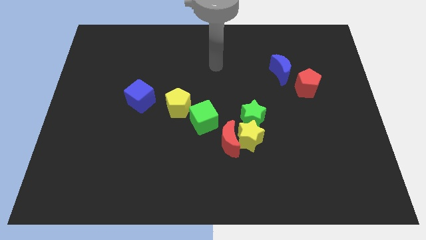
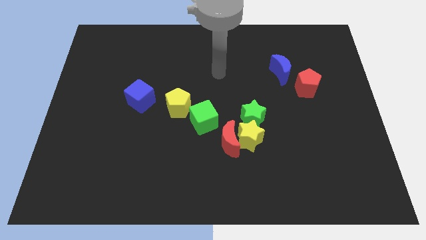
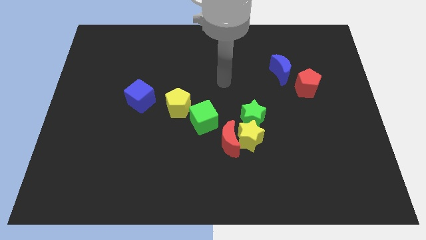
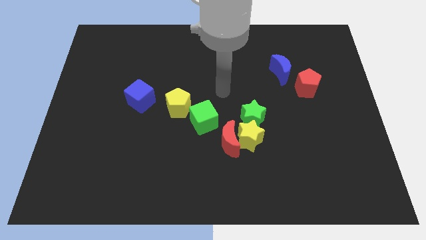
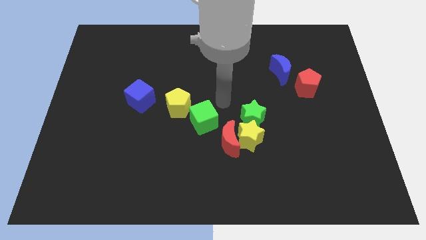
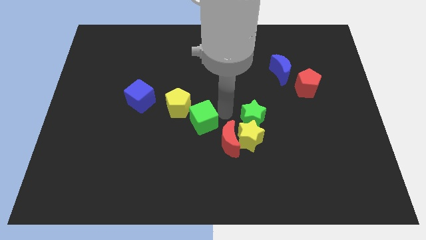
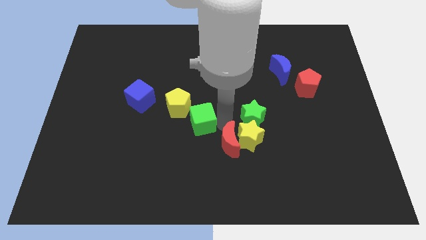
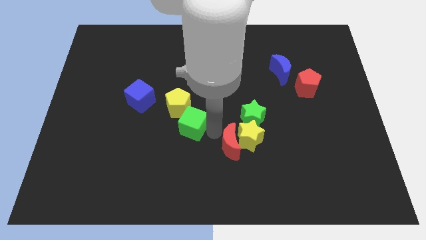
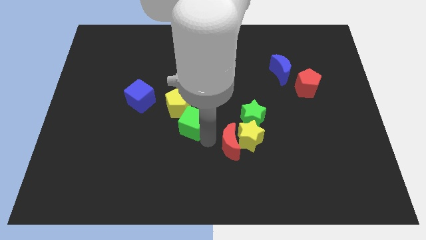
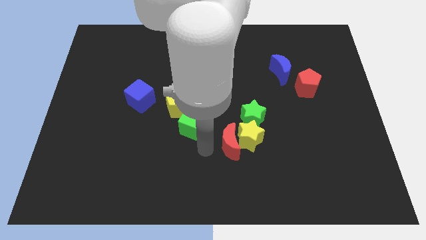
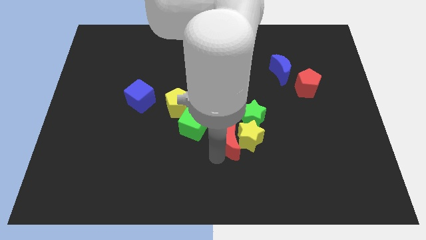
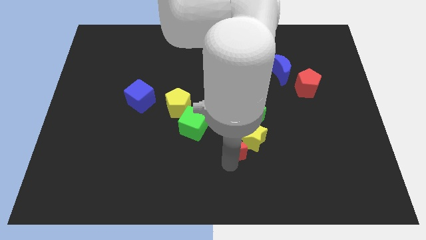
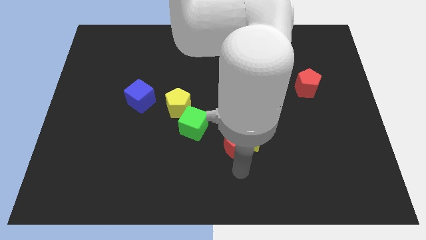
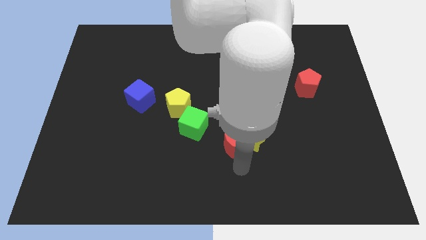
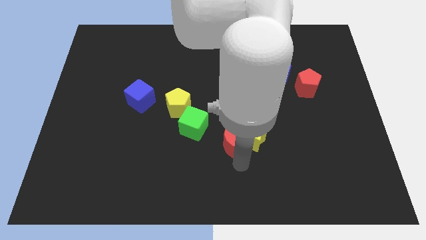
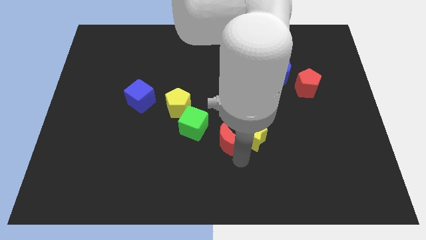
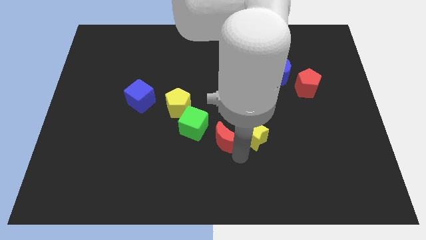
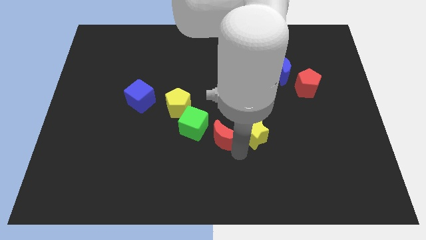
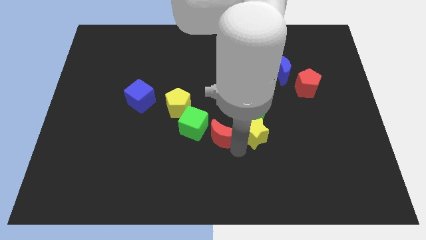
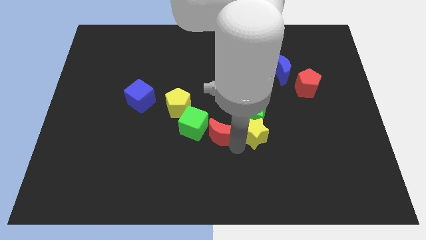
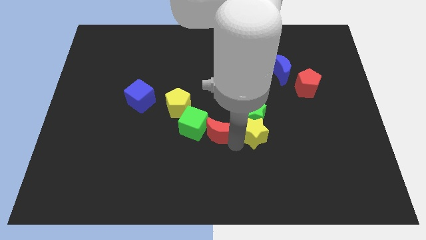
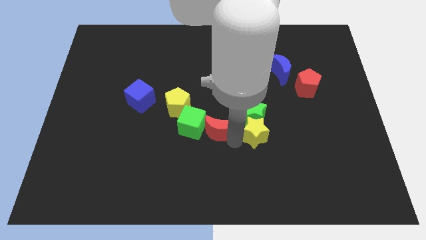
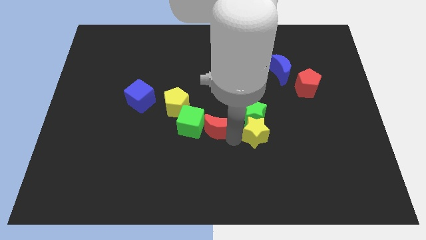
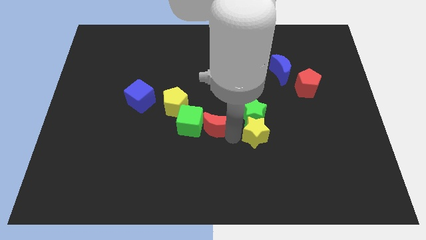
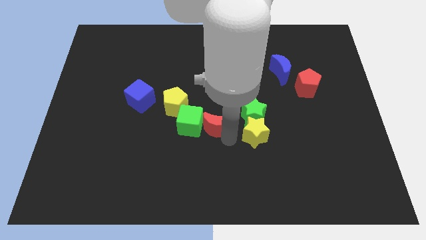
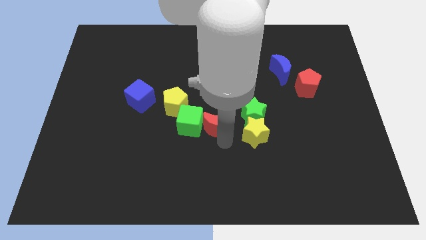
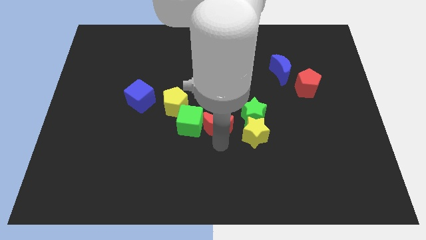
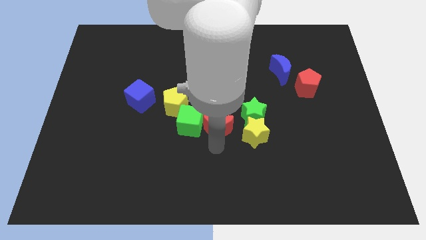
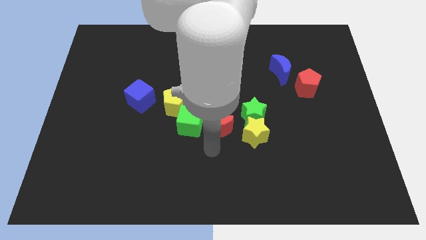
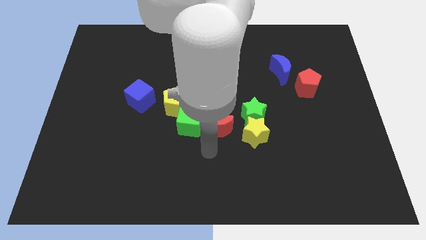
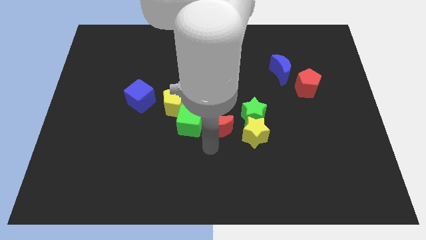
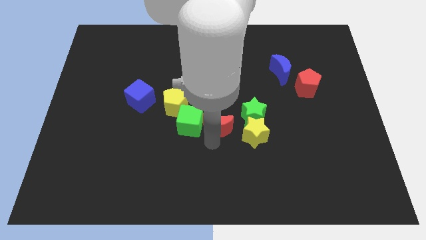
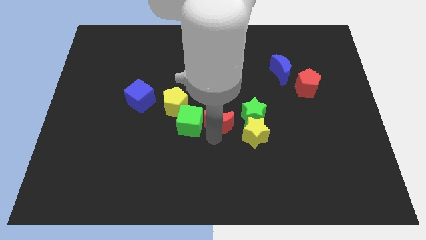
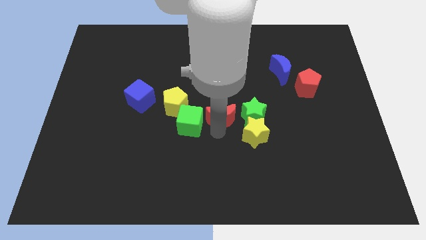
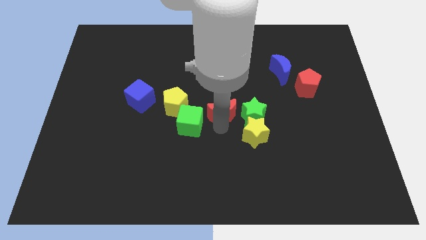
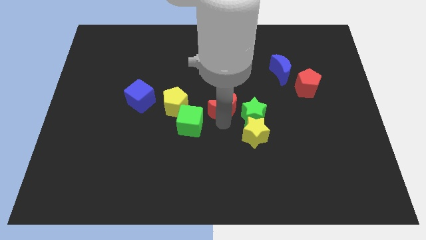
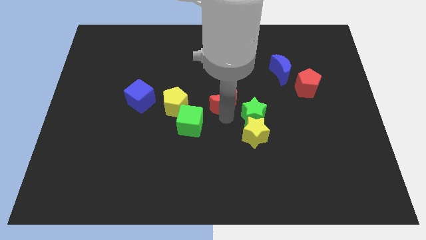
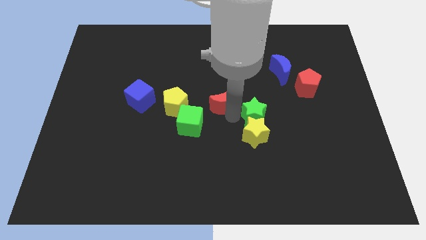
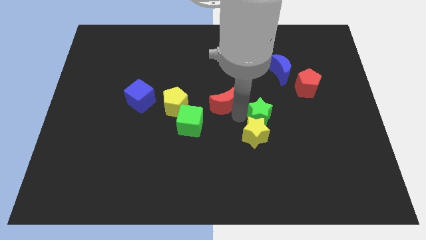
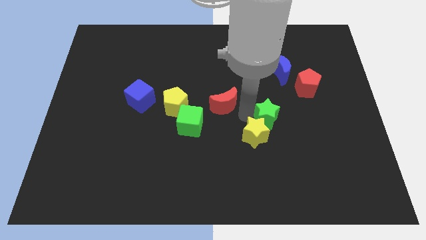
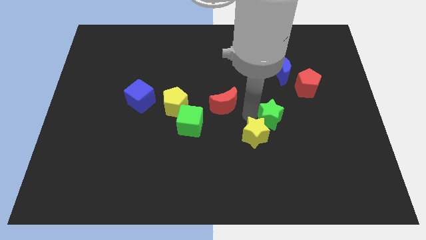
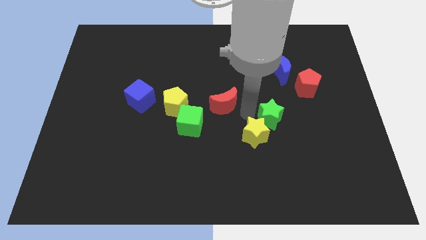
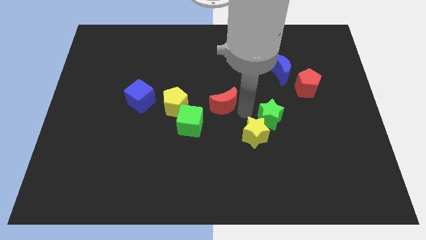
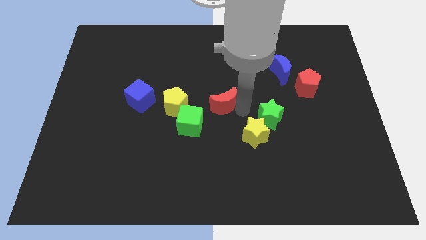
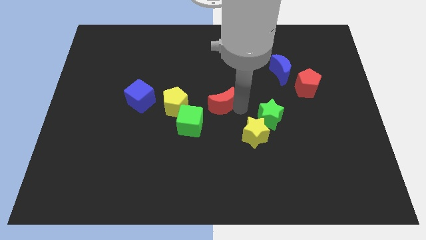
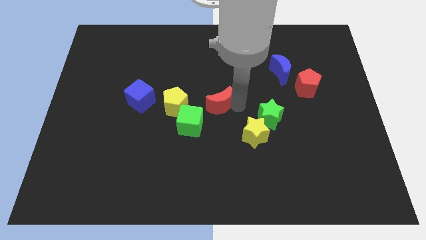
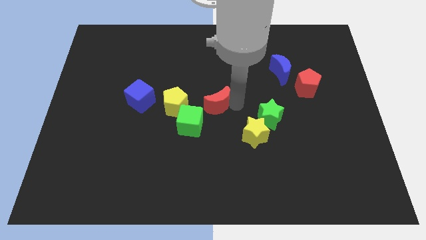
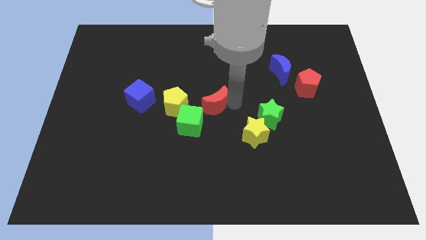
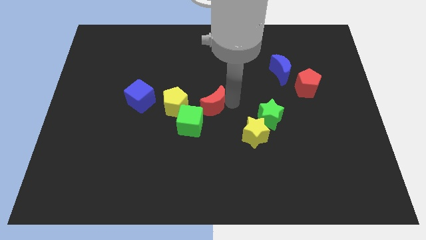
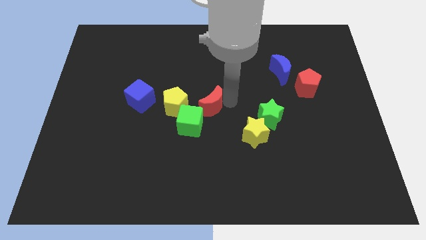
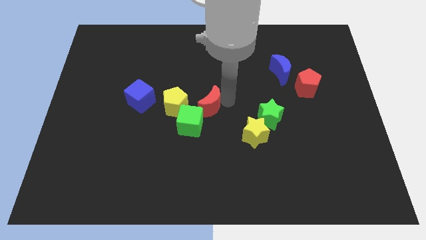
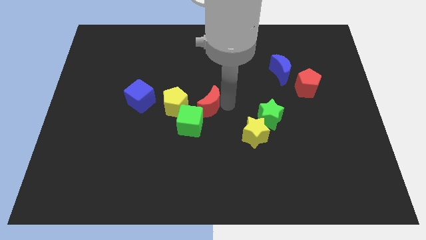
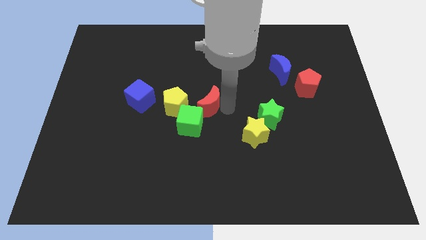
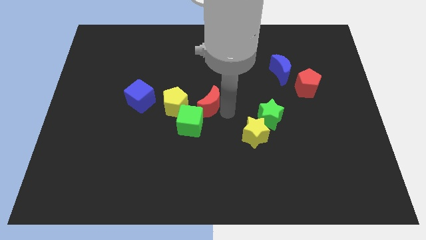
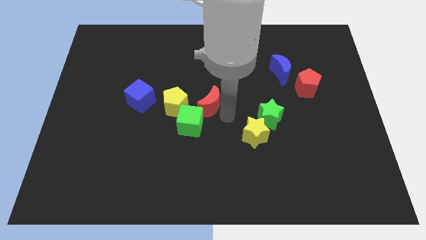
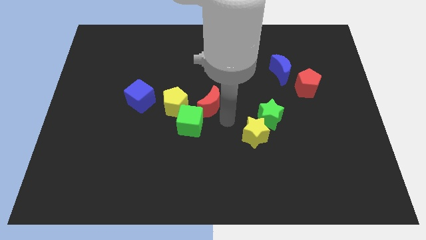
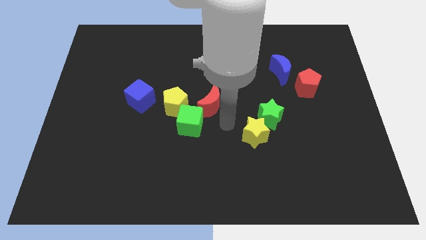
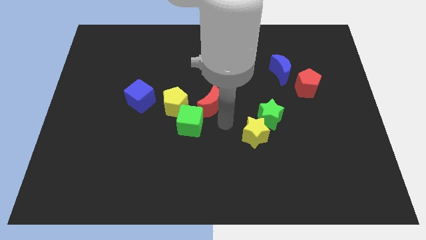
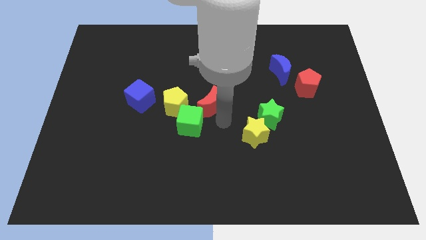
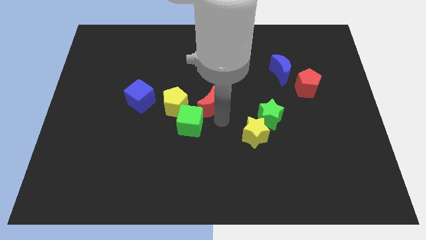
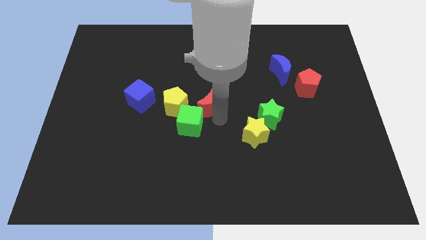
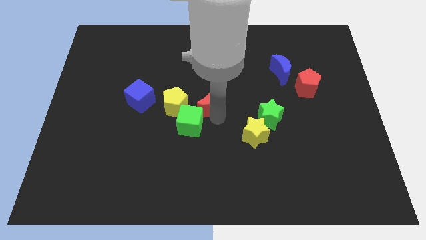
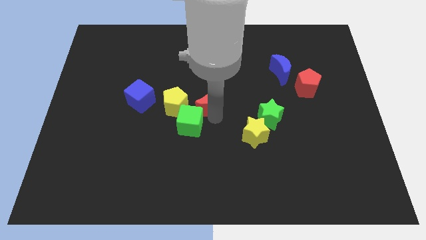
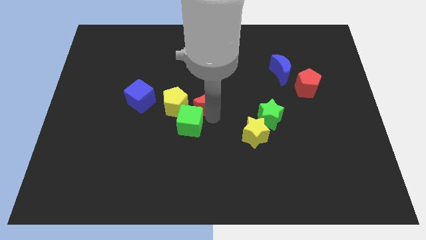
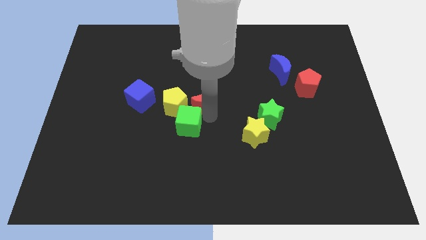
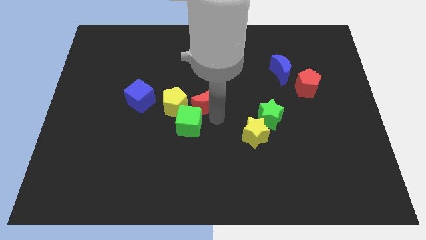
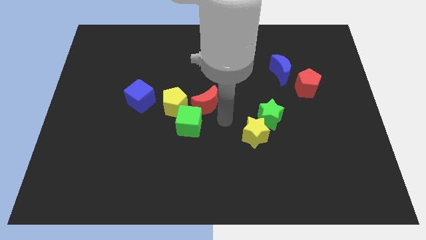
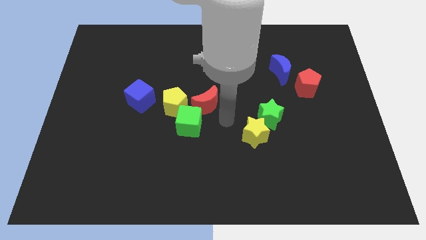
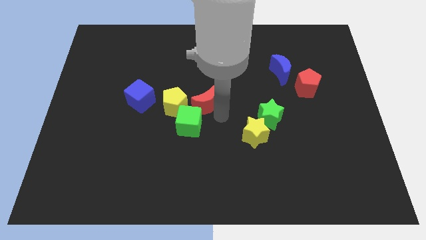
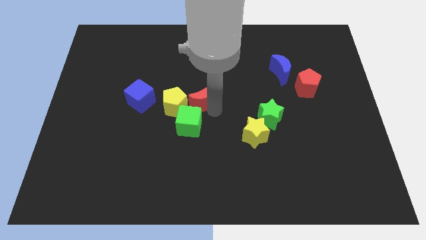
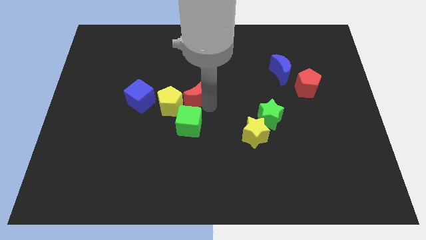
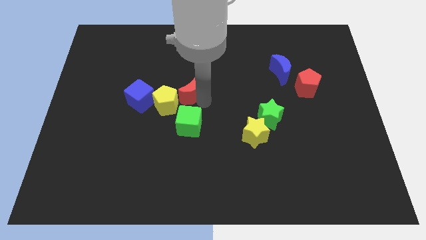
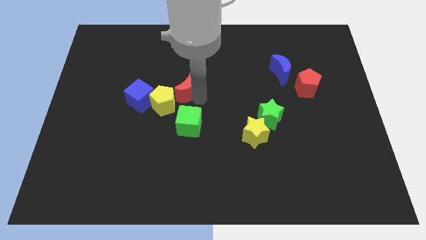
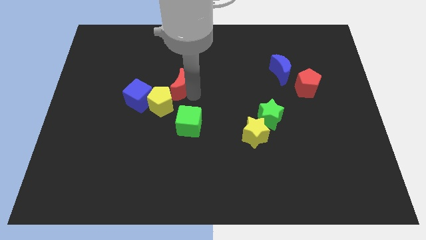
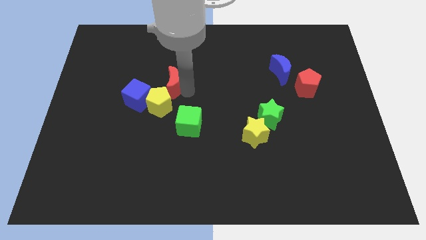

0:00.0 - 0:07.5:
slide the red moon upwards and to the left

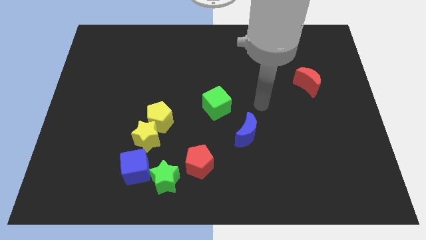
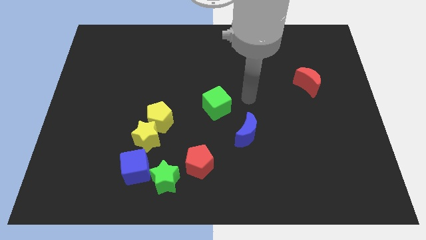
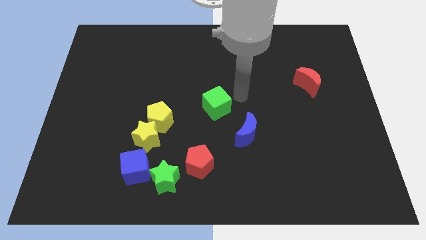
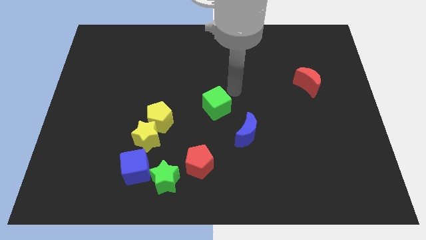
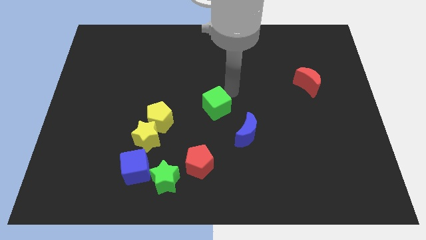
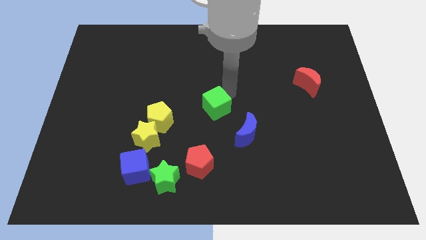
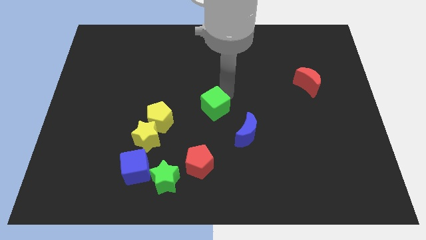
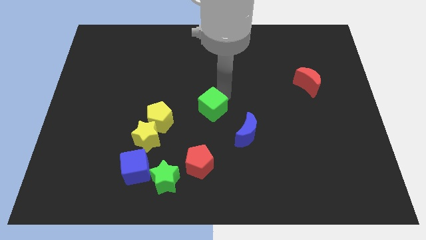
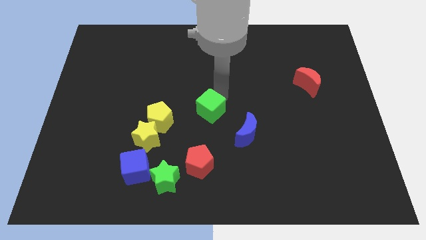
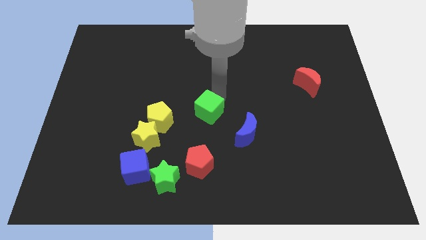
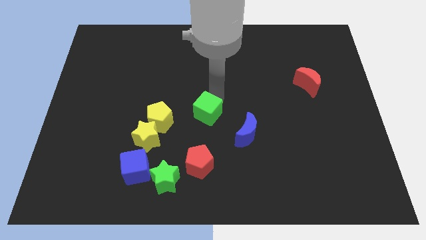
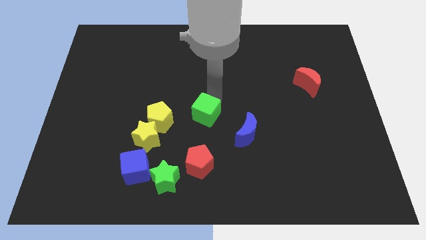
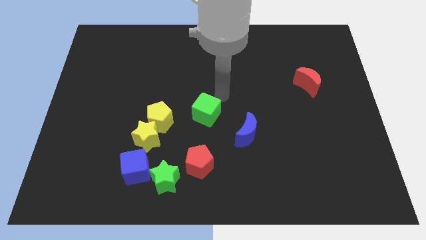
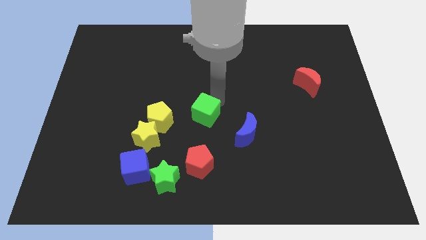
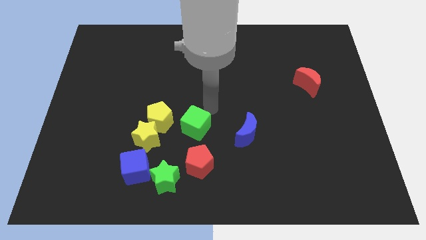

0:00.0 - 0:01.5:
push the green cube slightly down and to the left
